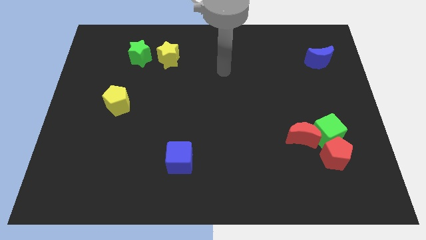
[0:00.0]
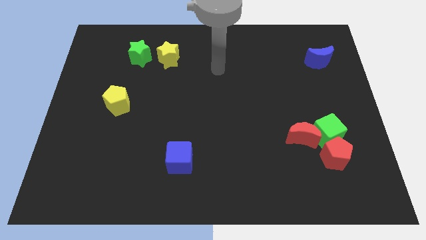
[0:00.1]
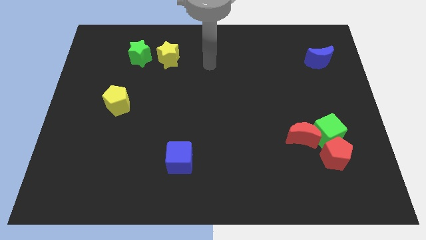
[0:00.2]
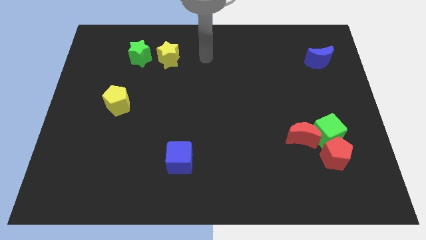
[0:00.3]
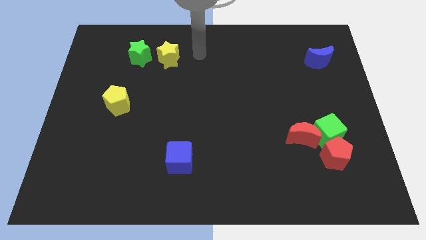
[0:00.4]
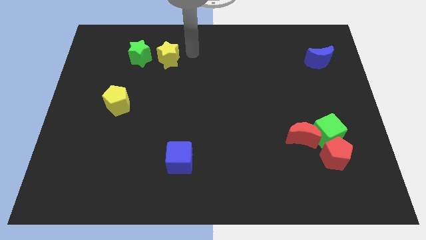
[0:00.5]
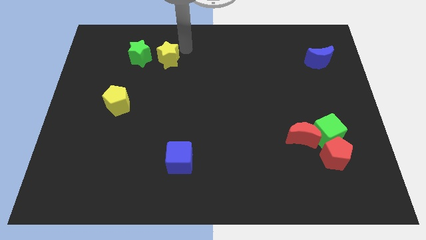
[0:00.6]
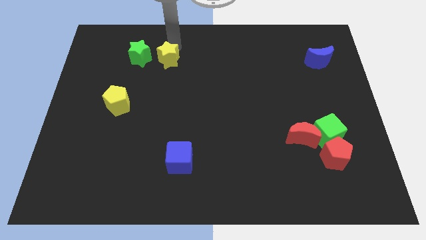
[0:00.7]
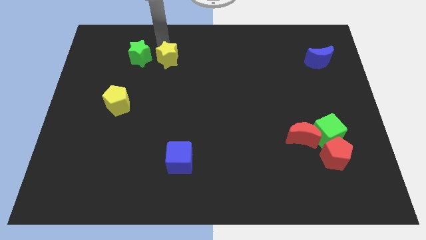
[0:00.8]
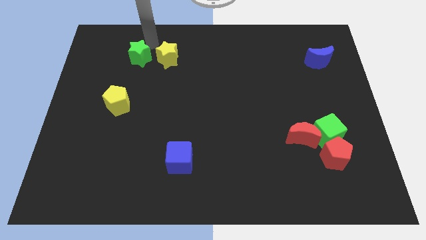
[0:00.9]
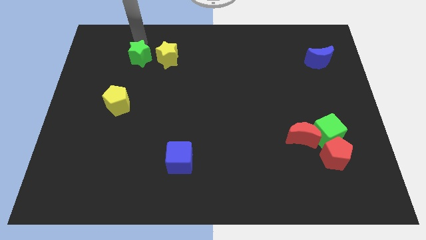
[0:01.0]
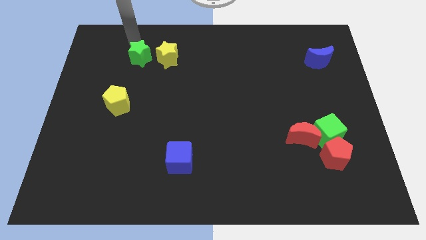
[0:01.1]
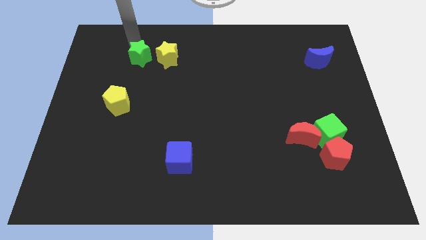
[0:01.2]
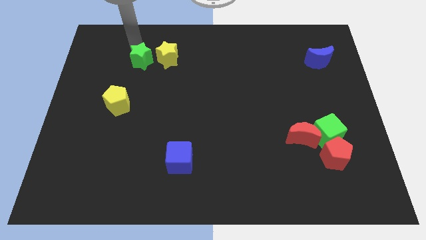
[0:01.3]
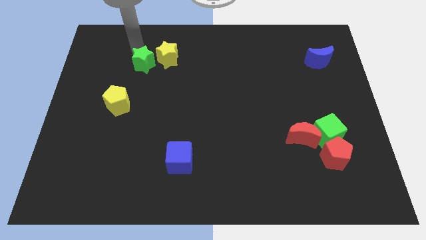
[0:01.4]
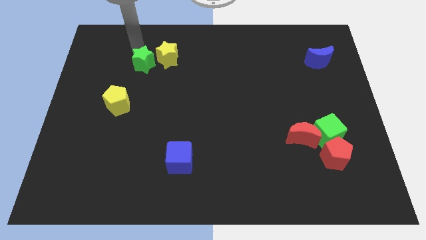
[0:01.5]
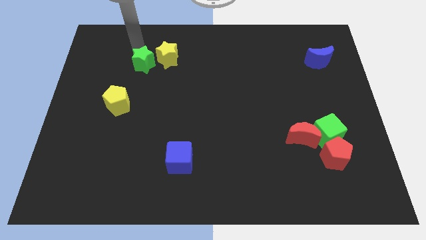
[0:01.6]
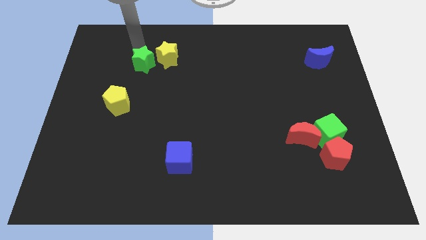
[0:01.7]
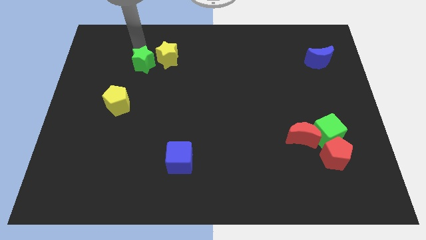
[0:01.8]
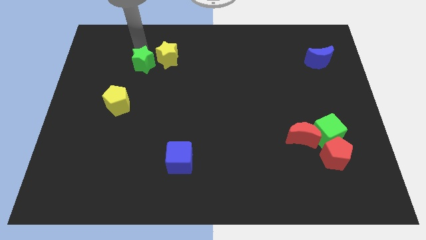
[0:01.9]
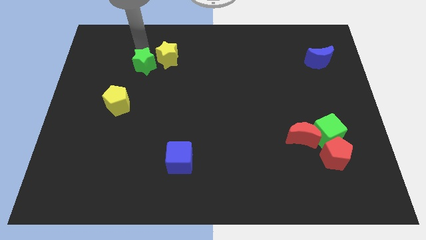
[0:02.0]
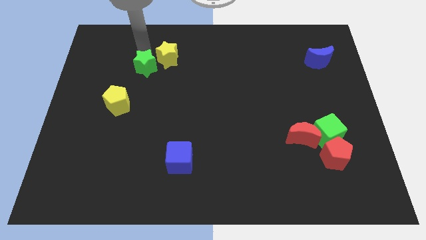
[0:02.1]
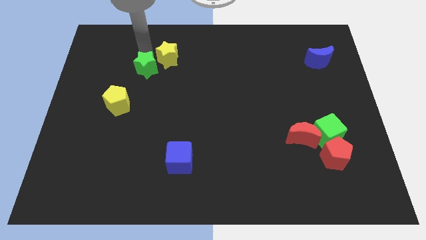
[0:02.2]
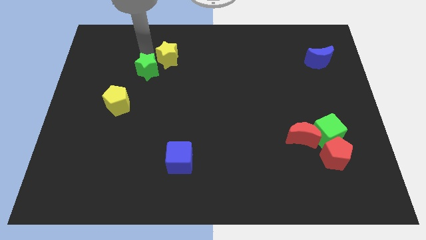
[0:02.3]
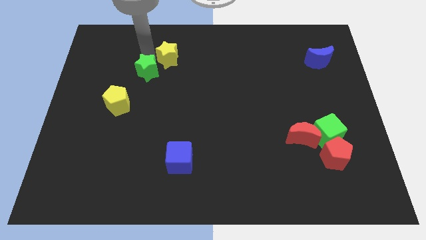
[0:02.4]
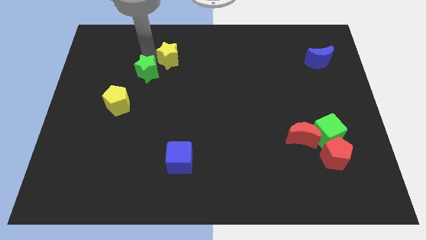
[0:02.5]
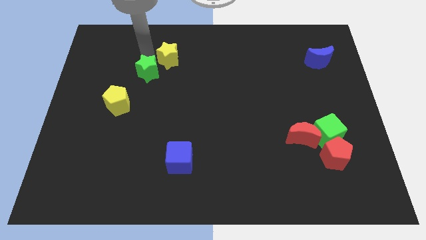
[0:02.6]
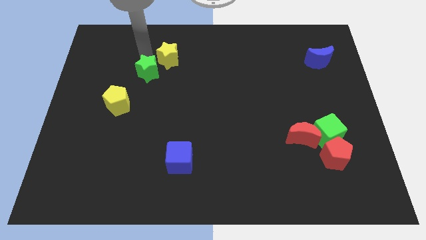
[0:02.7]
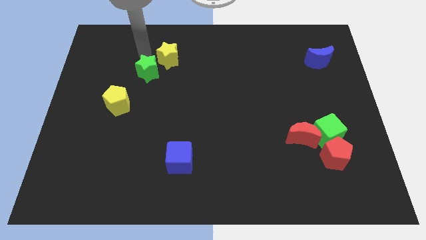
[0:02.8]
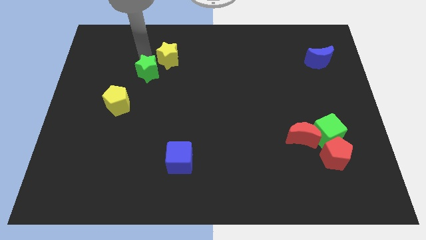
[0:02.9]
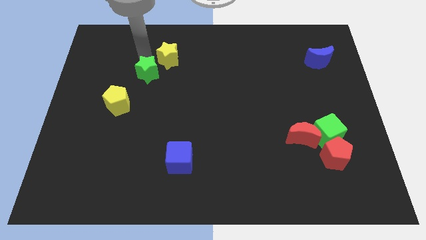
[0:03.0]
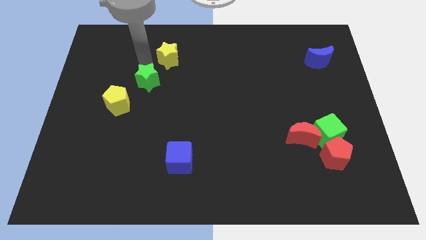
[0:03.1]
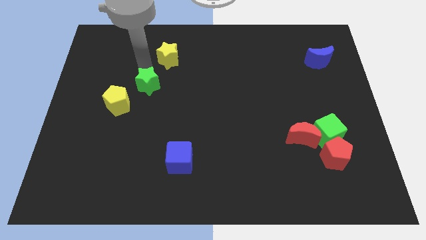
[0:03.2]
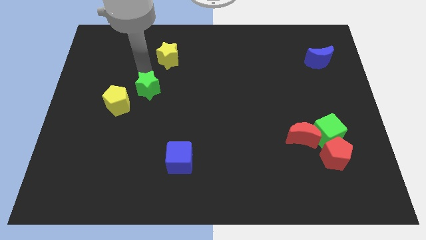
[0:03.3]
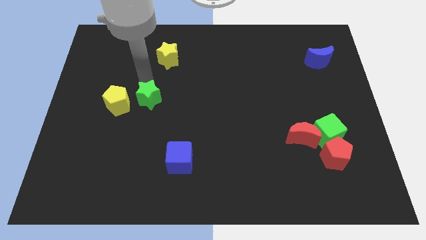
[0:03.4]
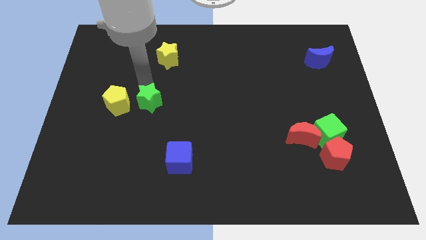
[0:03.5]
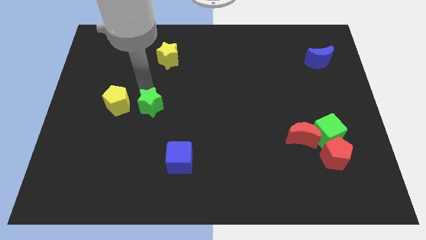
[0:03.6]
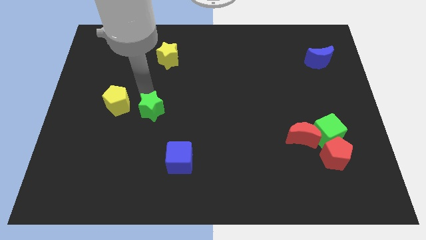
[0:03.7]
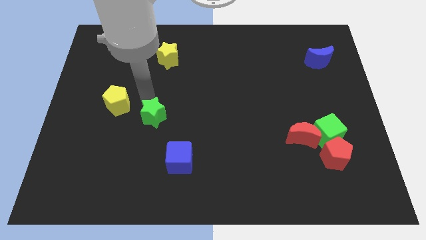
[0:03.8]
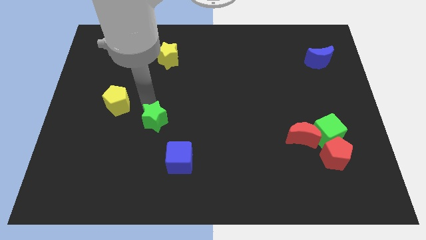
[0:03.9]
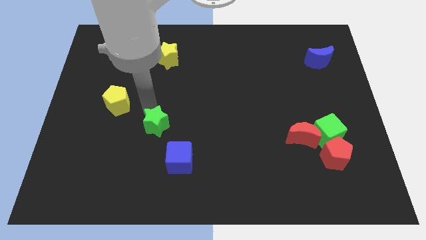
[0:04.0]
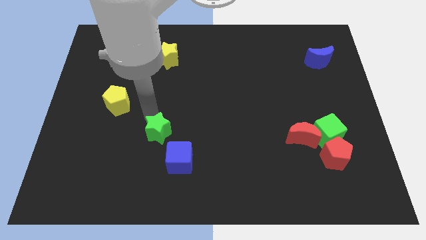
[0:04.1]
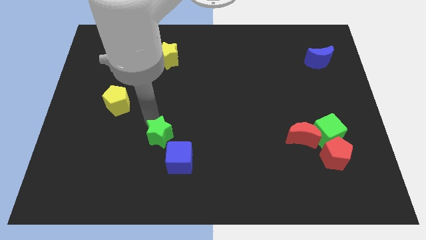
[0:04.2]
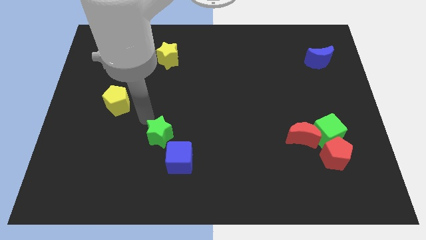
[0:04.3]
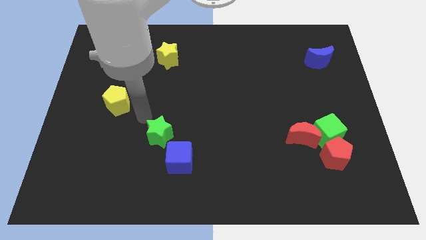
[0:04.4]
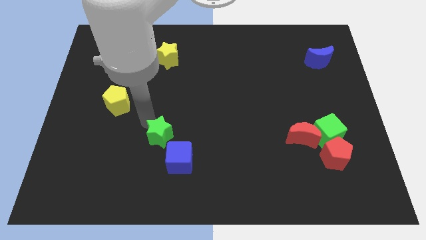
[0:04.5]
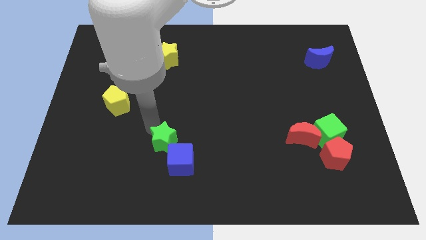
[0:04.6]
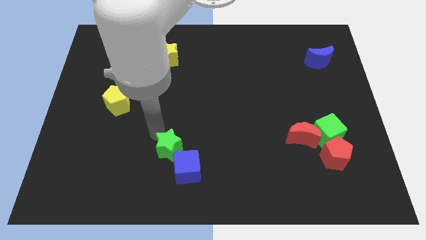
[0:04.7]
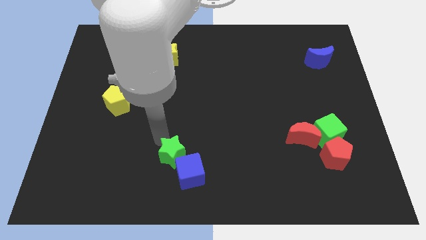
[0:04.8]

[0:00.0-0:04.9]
move the green star to the blue cube

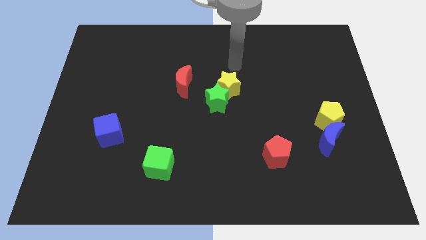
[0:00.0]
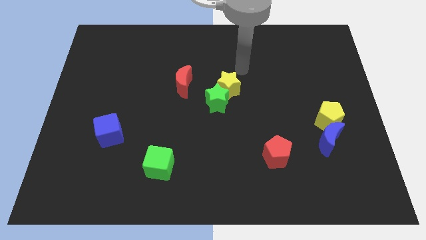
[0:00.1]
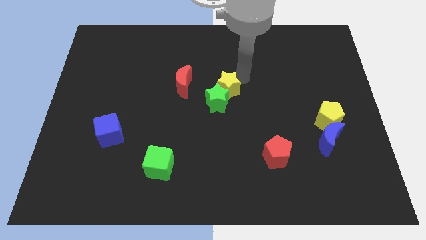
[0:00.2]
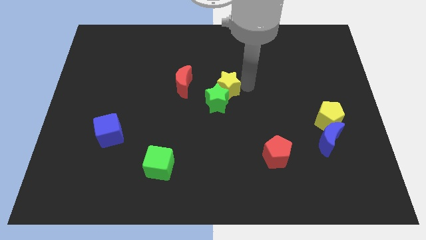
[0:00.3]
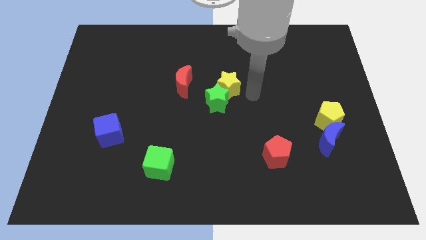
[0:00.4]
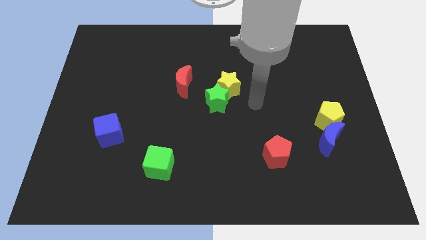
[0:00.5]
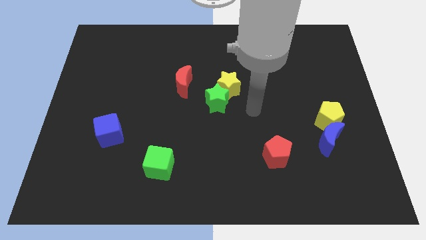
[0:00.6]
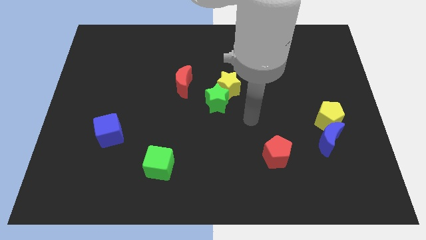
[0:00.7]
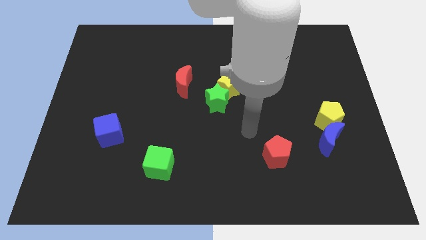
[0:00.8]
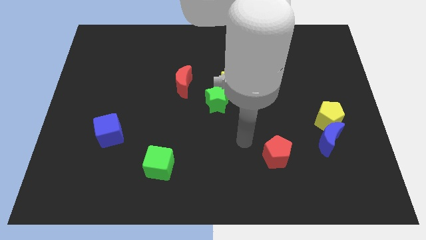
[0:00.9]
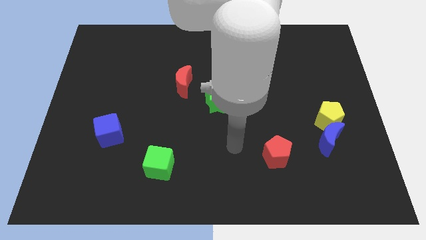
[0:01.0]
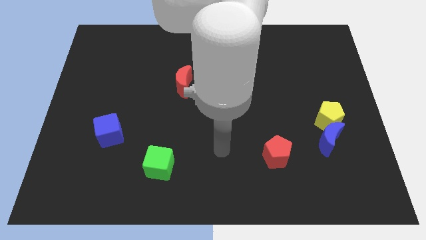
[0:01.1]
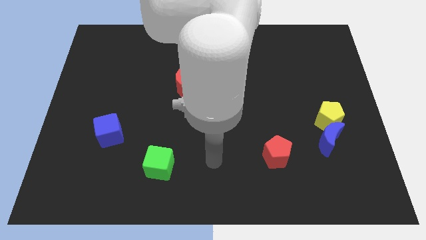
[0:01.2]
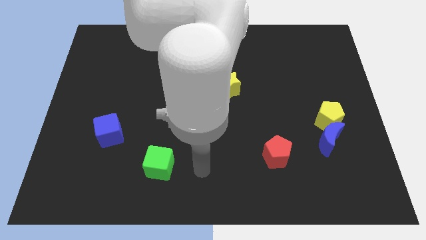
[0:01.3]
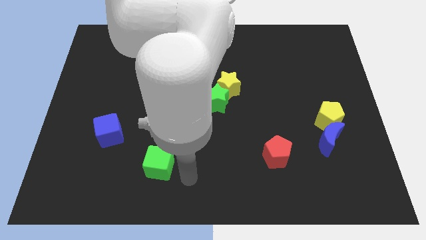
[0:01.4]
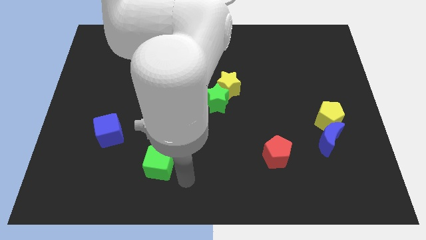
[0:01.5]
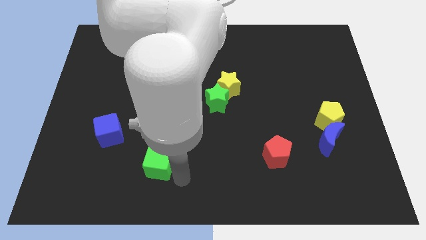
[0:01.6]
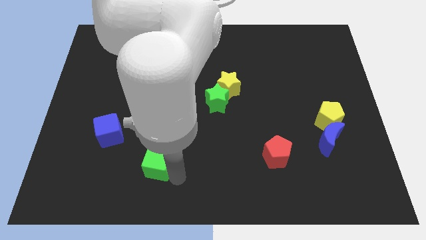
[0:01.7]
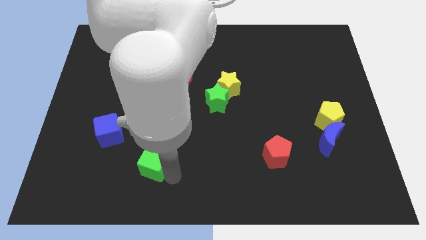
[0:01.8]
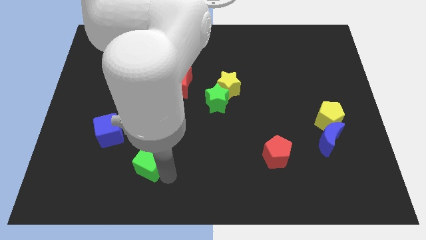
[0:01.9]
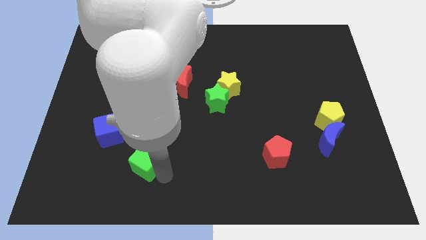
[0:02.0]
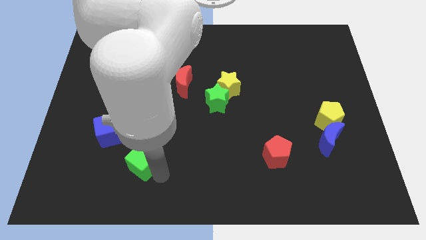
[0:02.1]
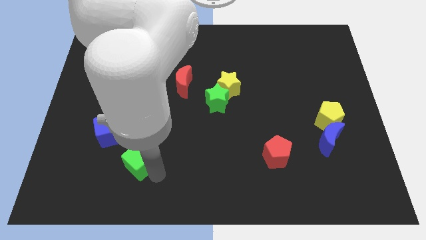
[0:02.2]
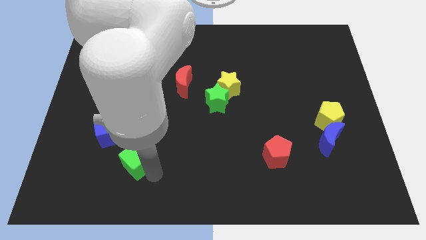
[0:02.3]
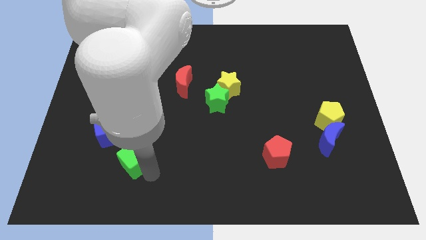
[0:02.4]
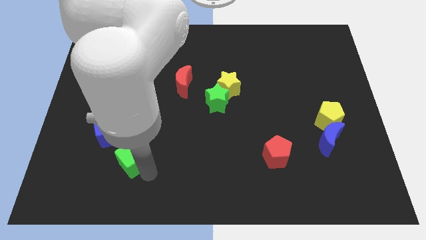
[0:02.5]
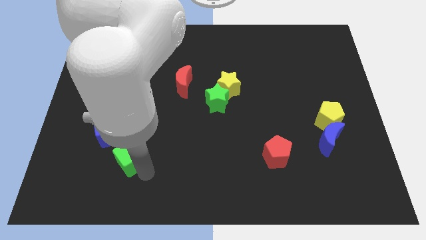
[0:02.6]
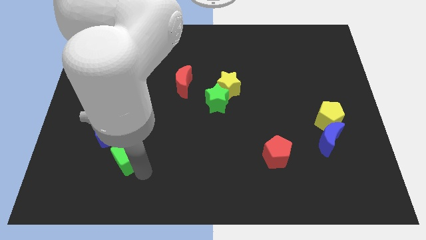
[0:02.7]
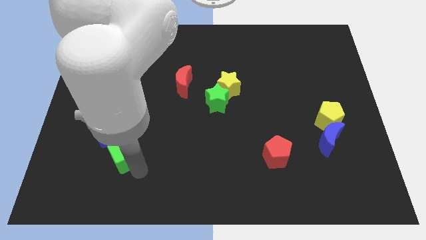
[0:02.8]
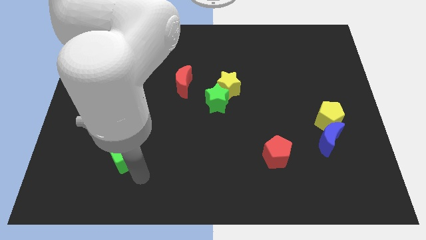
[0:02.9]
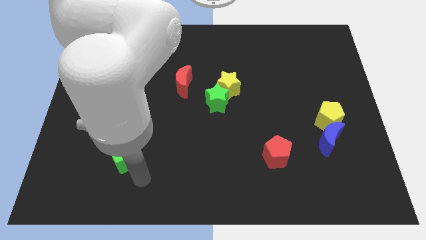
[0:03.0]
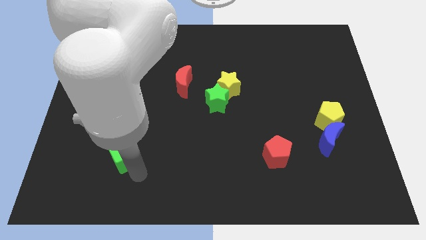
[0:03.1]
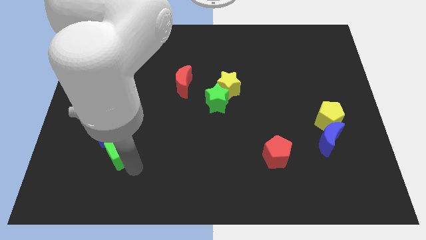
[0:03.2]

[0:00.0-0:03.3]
slide the green cube to the blue cube
